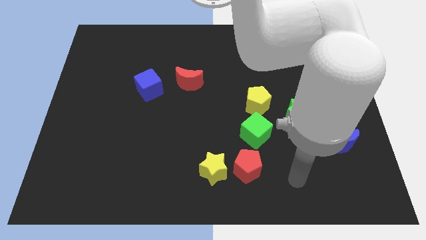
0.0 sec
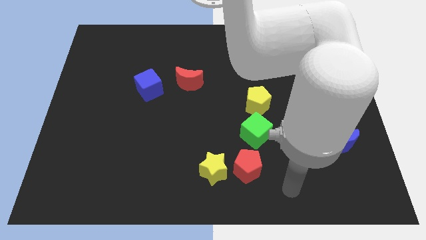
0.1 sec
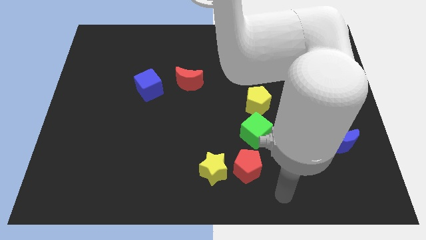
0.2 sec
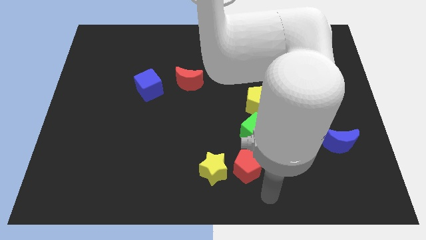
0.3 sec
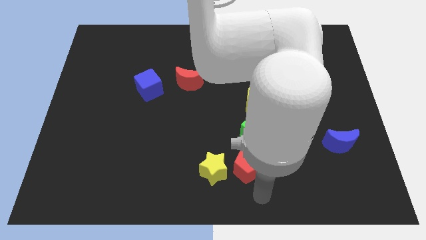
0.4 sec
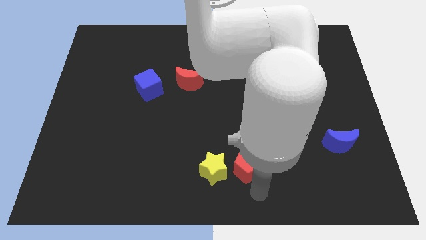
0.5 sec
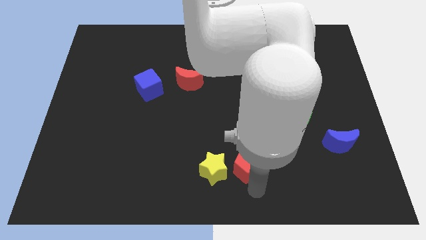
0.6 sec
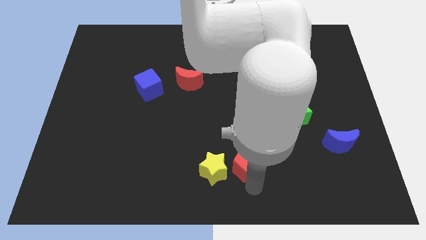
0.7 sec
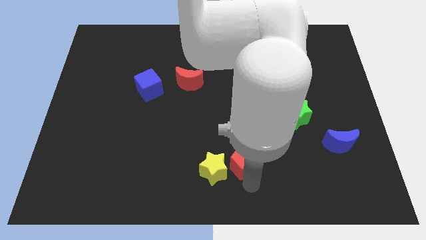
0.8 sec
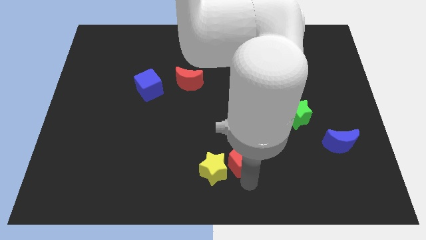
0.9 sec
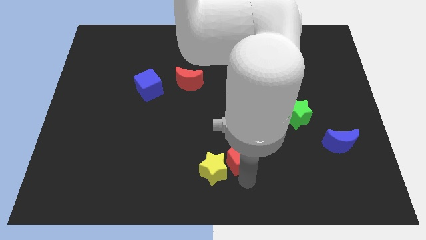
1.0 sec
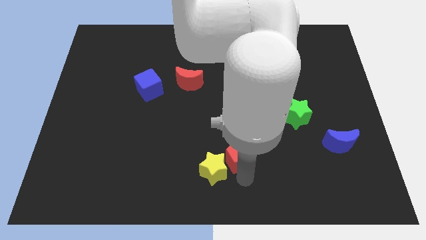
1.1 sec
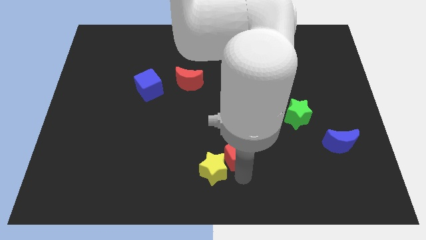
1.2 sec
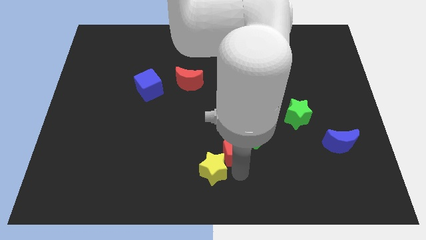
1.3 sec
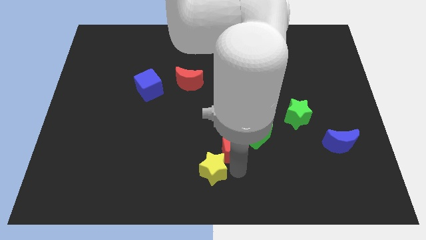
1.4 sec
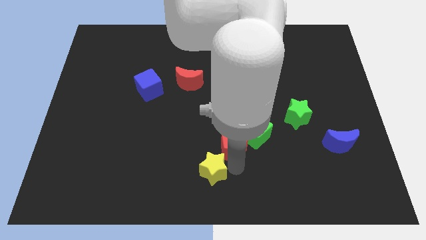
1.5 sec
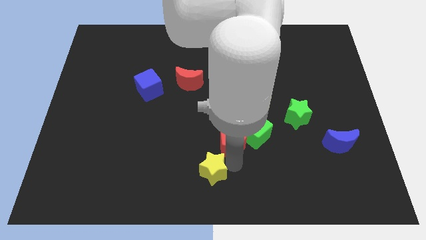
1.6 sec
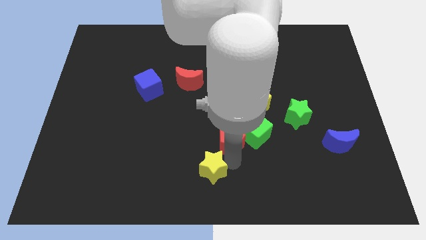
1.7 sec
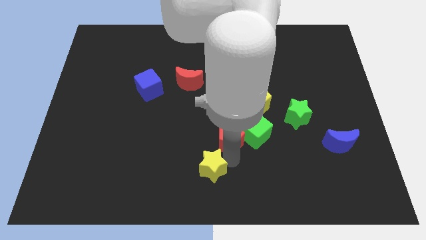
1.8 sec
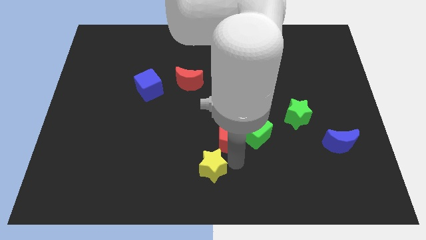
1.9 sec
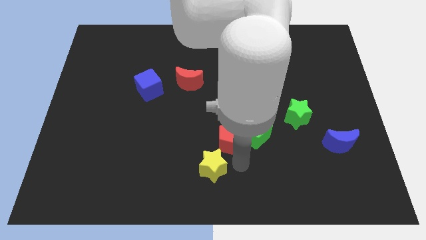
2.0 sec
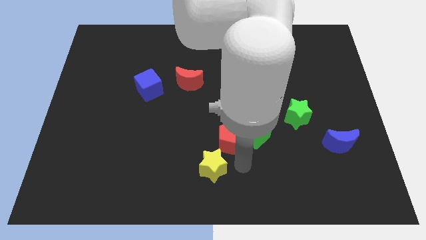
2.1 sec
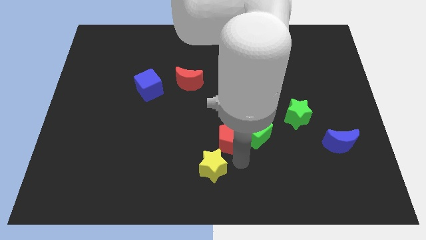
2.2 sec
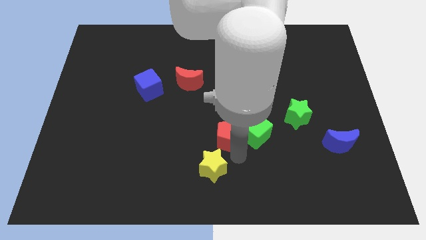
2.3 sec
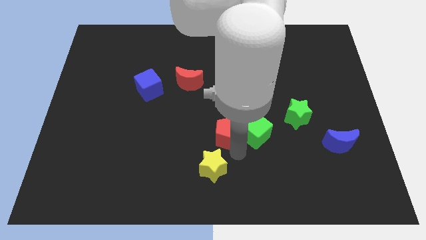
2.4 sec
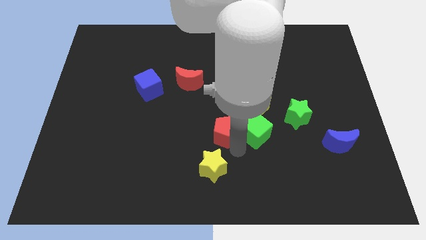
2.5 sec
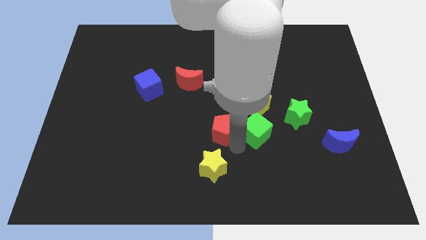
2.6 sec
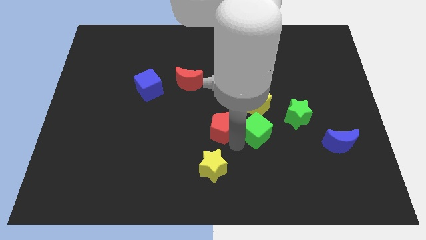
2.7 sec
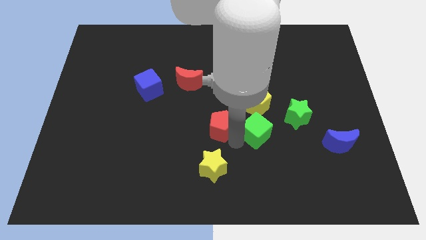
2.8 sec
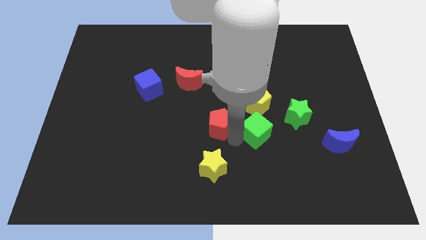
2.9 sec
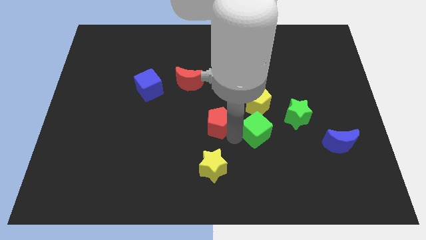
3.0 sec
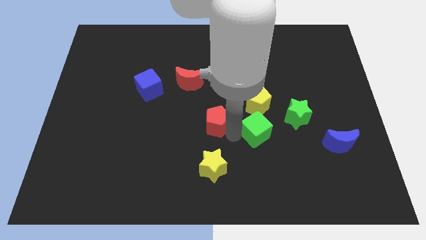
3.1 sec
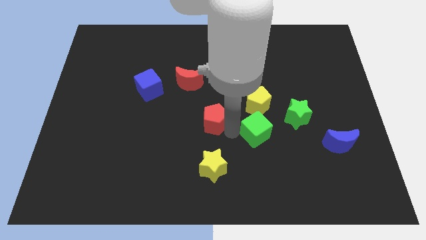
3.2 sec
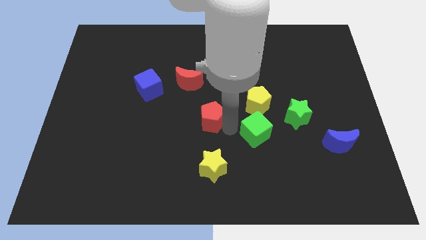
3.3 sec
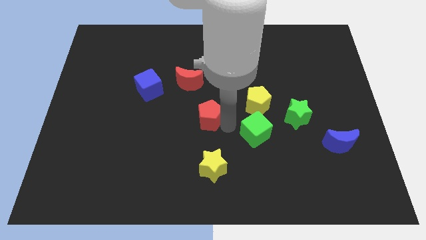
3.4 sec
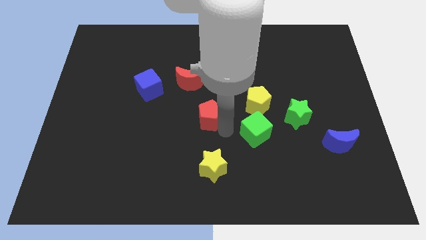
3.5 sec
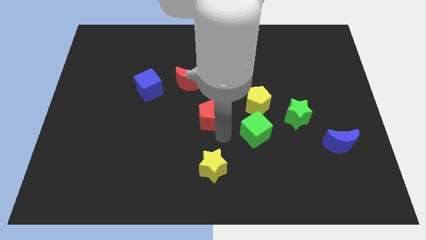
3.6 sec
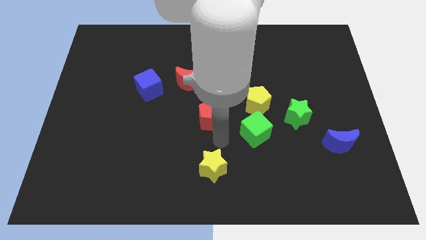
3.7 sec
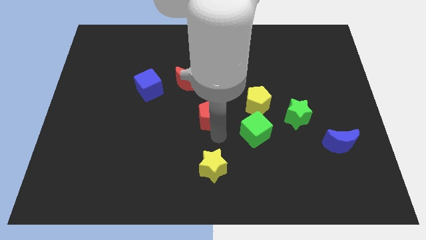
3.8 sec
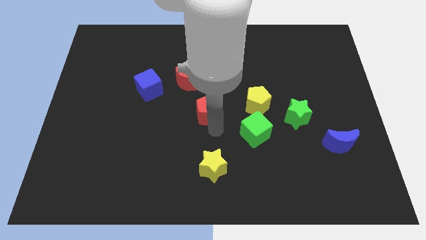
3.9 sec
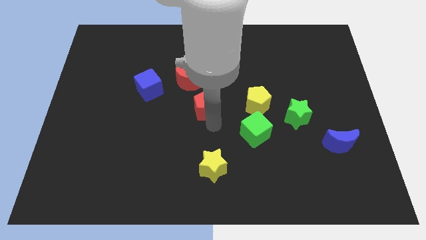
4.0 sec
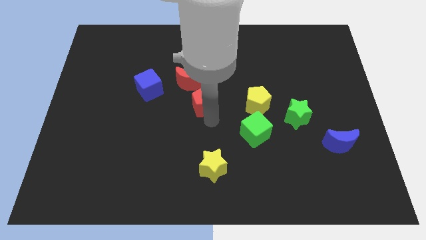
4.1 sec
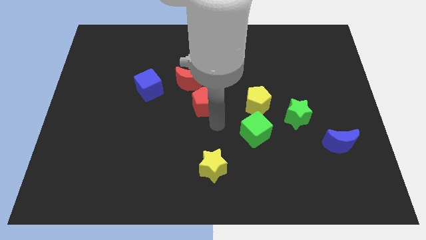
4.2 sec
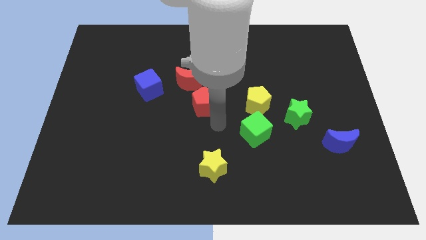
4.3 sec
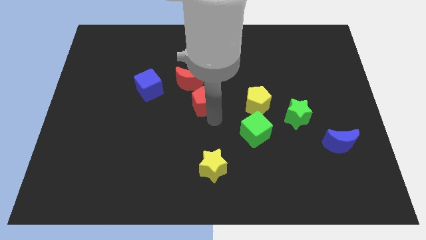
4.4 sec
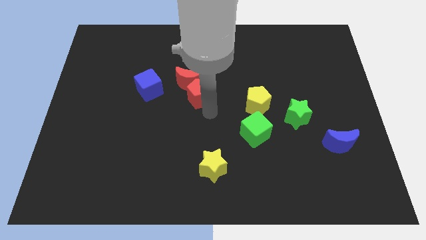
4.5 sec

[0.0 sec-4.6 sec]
move the red pentagon next to the red moon

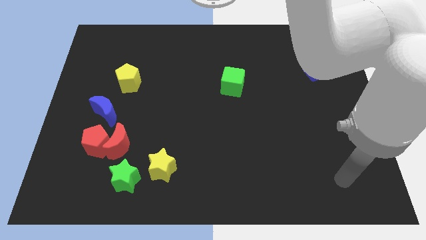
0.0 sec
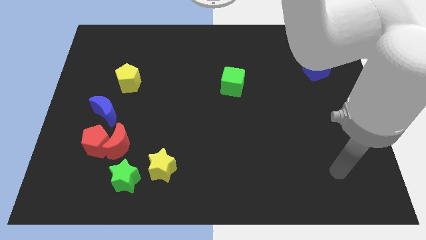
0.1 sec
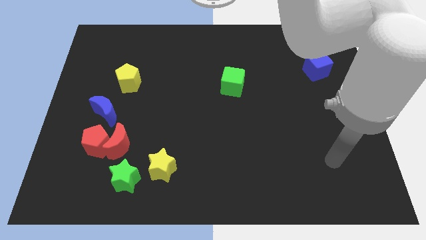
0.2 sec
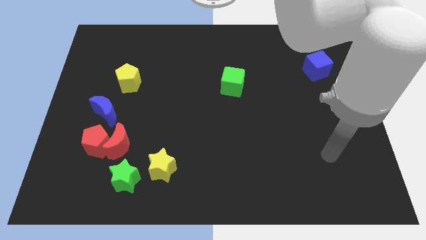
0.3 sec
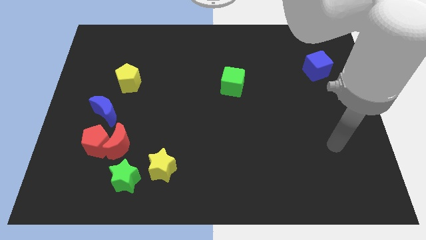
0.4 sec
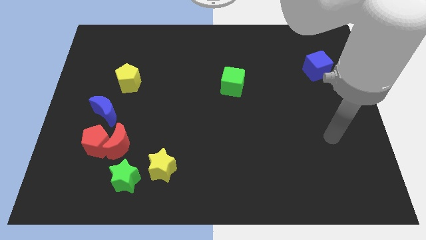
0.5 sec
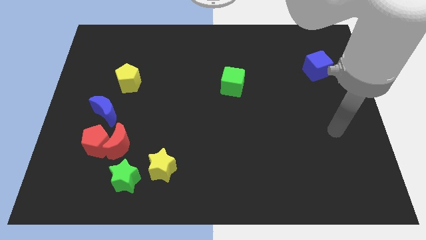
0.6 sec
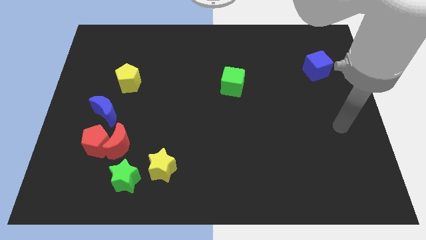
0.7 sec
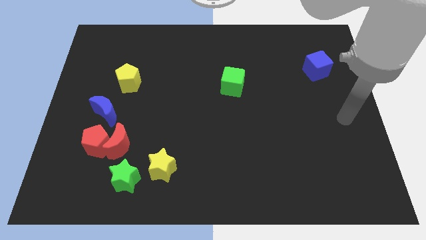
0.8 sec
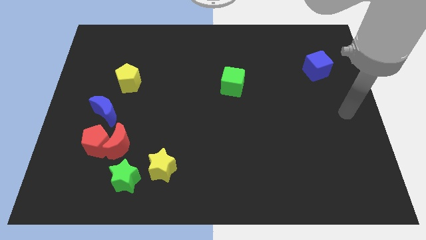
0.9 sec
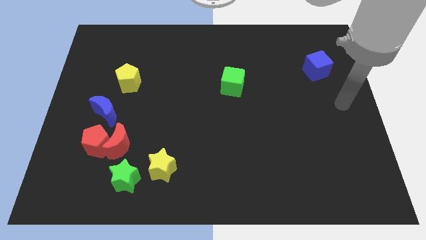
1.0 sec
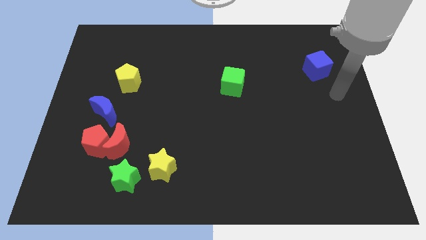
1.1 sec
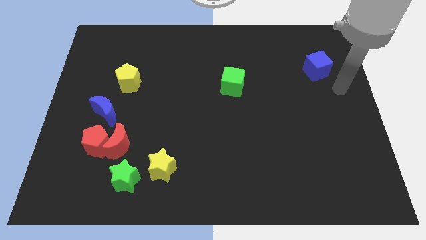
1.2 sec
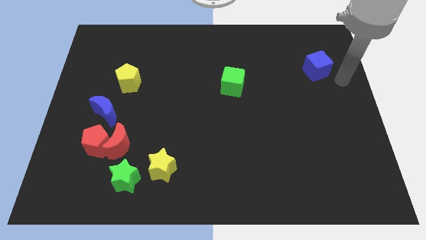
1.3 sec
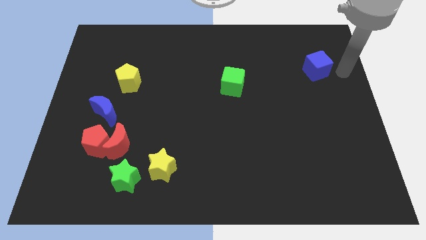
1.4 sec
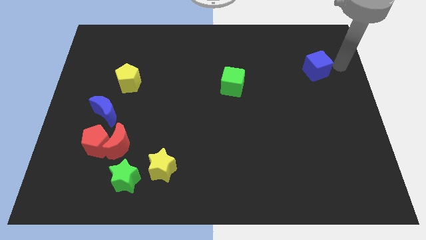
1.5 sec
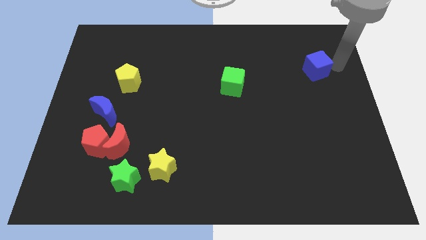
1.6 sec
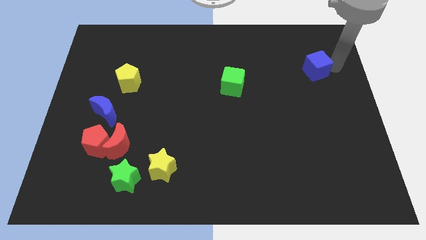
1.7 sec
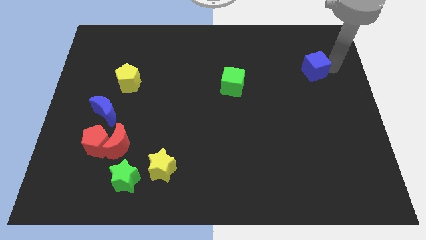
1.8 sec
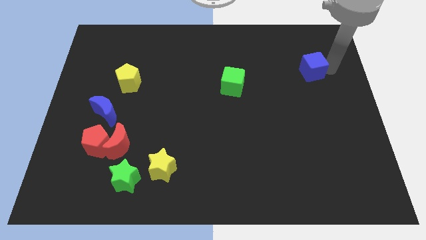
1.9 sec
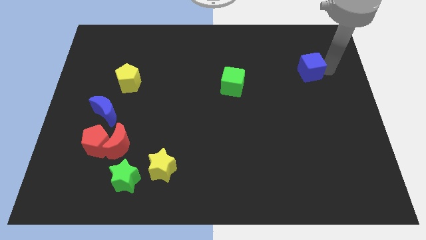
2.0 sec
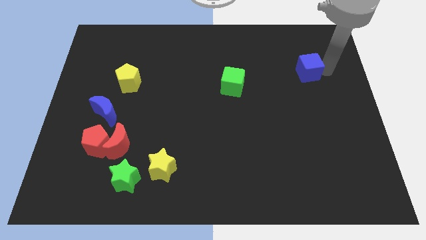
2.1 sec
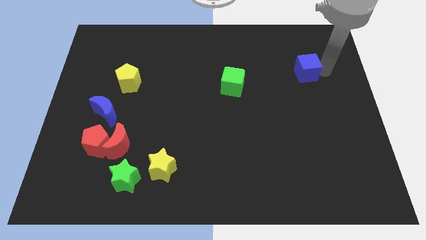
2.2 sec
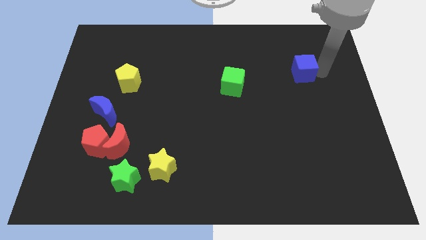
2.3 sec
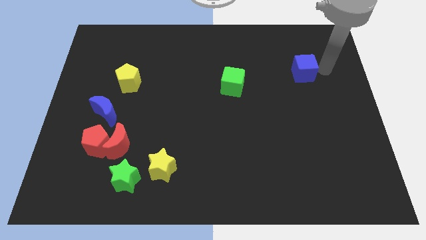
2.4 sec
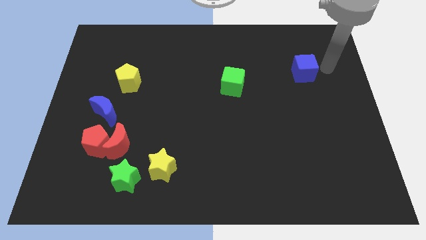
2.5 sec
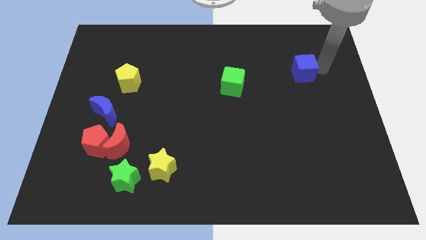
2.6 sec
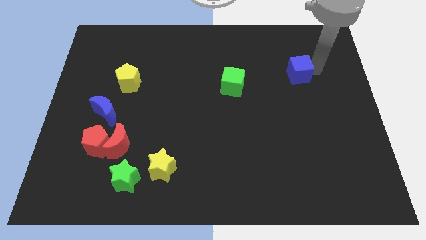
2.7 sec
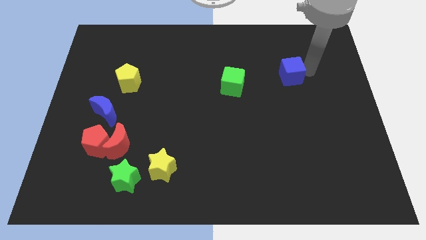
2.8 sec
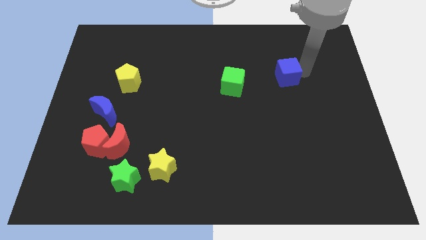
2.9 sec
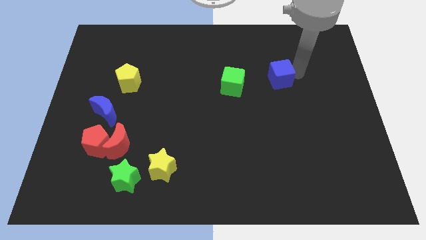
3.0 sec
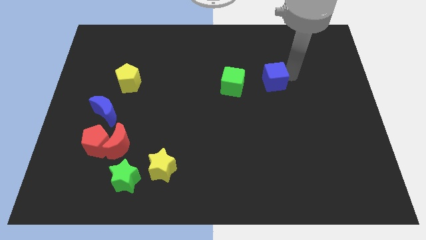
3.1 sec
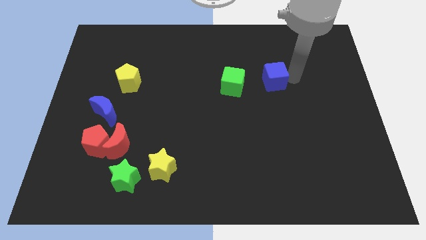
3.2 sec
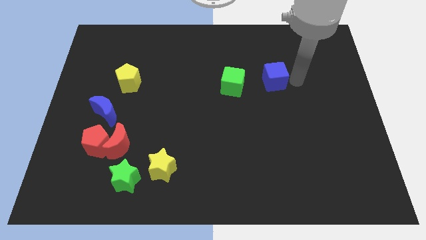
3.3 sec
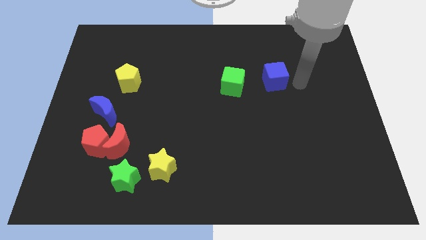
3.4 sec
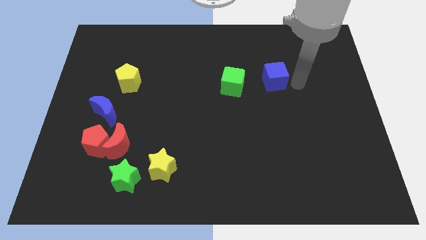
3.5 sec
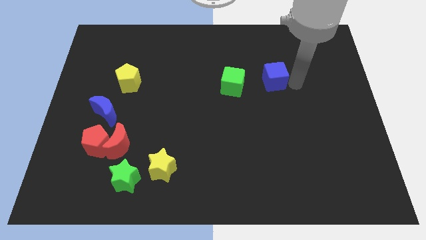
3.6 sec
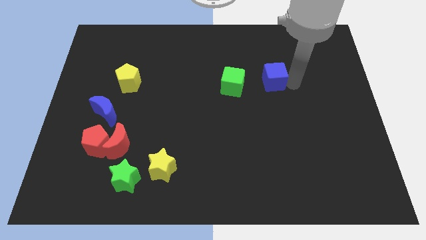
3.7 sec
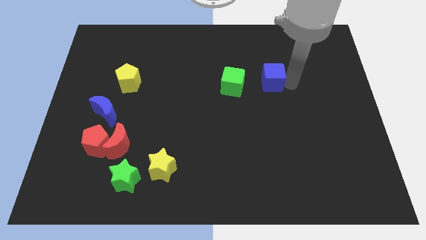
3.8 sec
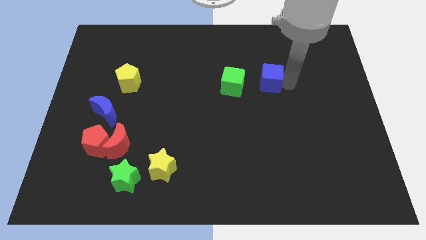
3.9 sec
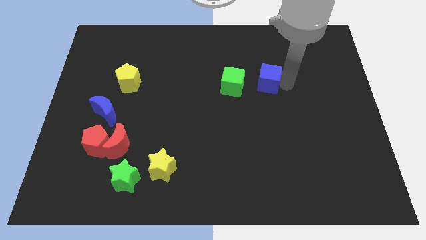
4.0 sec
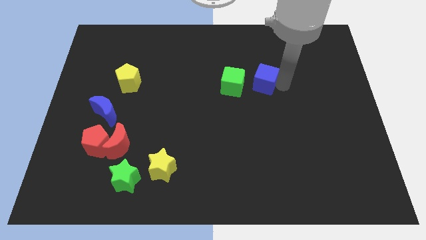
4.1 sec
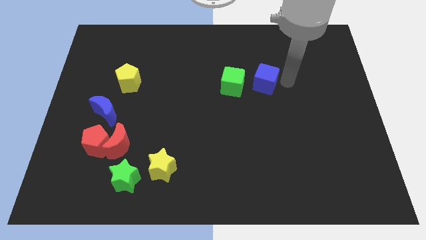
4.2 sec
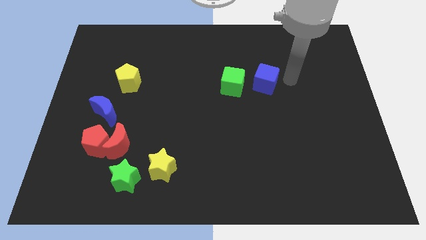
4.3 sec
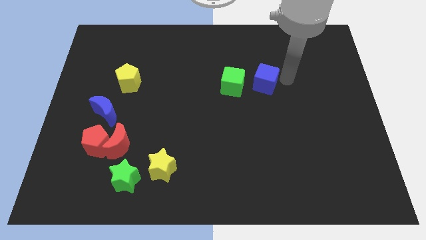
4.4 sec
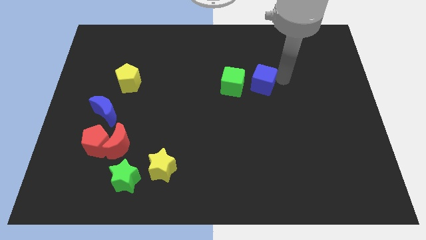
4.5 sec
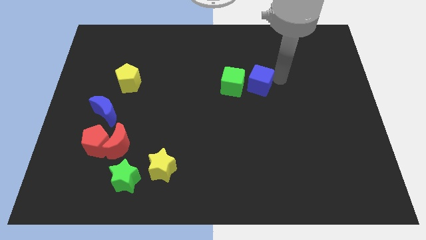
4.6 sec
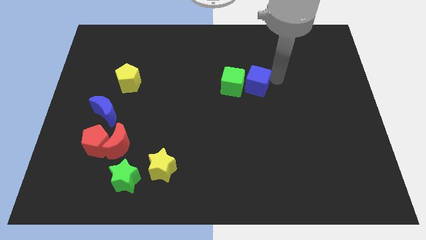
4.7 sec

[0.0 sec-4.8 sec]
slide the blue cube close to the green cube
